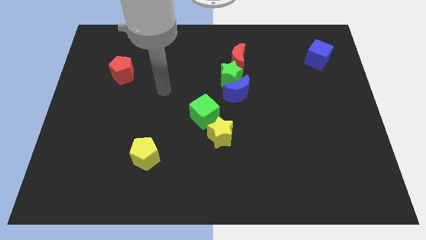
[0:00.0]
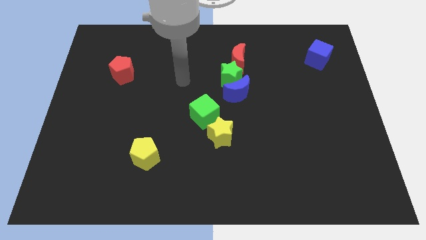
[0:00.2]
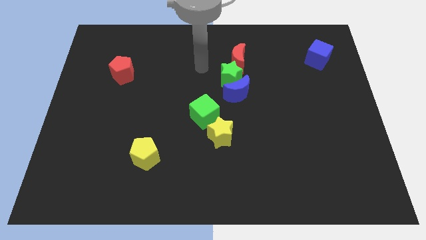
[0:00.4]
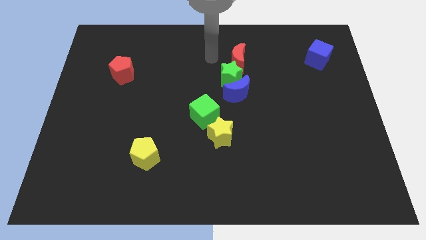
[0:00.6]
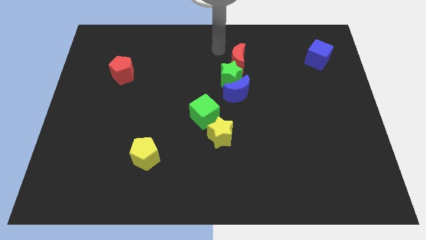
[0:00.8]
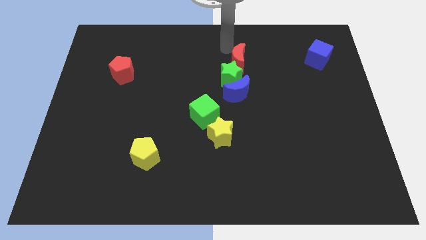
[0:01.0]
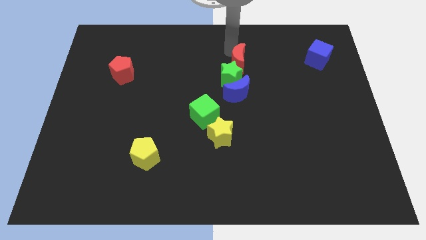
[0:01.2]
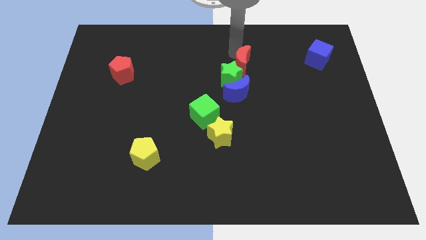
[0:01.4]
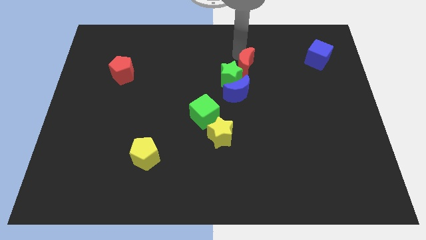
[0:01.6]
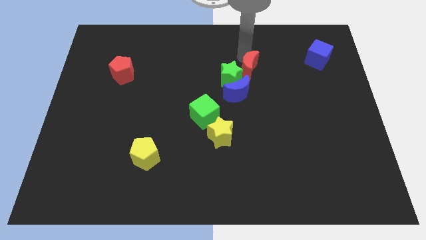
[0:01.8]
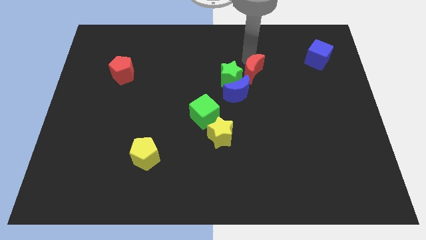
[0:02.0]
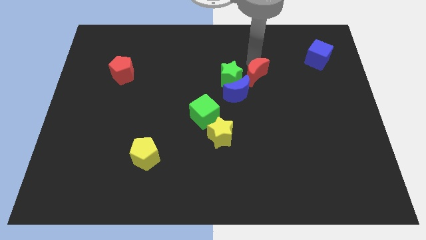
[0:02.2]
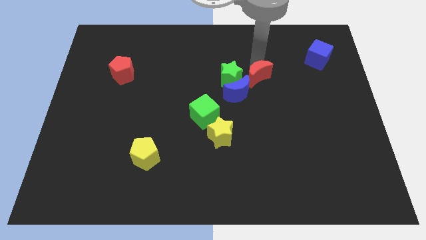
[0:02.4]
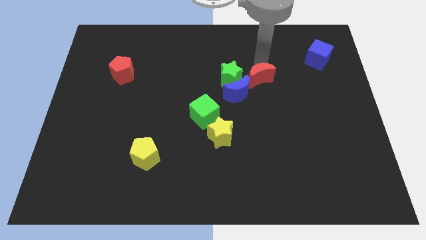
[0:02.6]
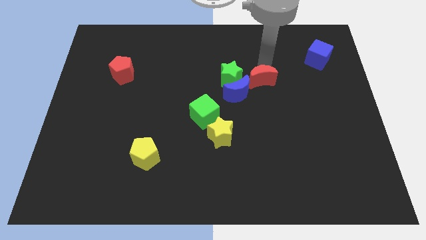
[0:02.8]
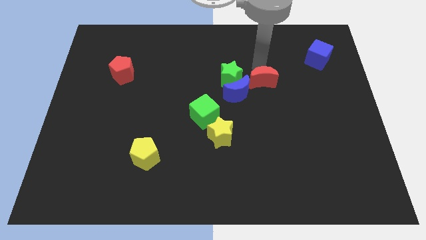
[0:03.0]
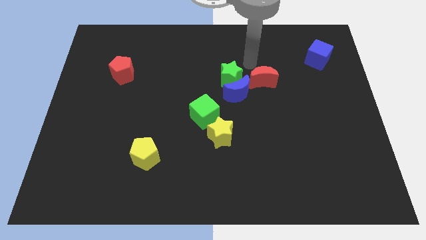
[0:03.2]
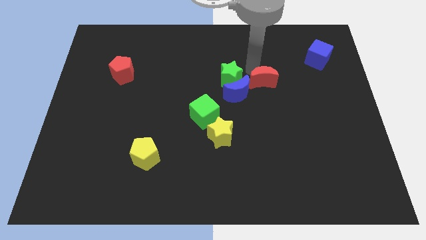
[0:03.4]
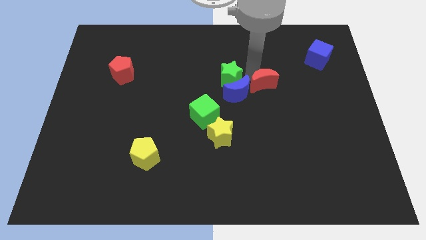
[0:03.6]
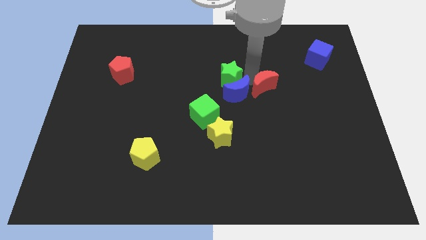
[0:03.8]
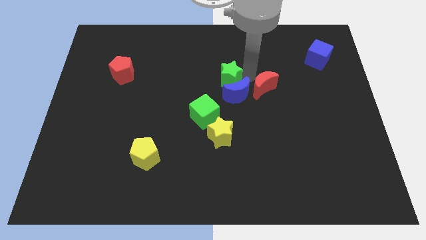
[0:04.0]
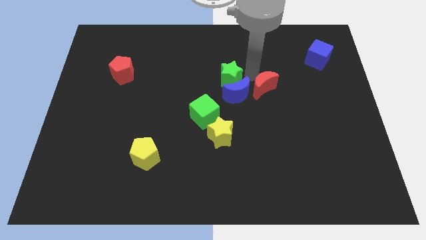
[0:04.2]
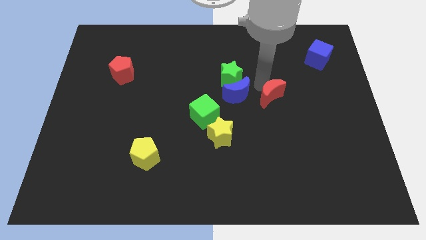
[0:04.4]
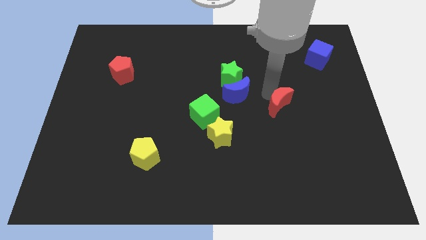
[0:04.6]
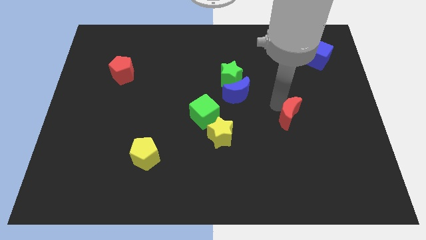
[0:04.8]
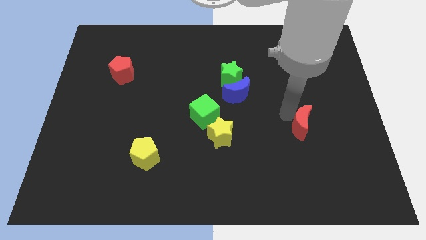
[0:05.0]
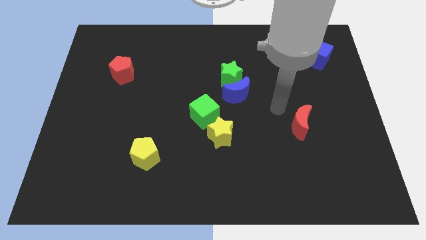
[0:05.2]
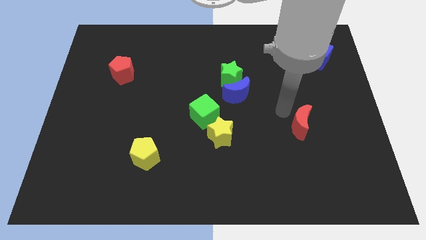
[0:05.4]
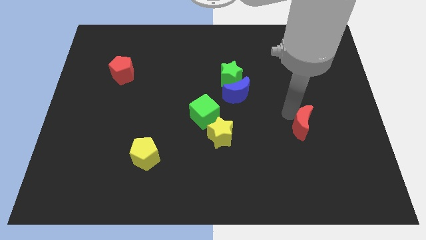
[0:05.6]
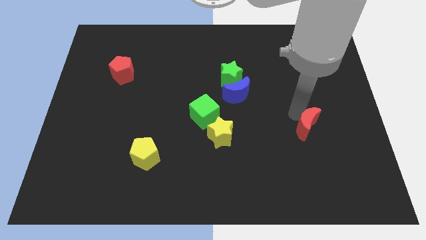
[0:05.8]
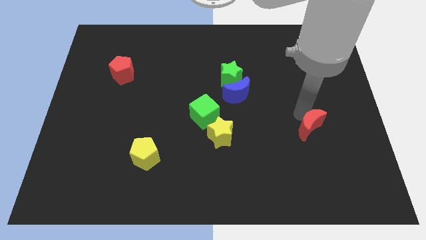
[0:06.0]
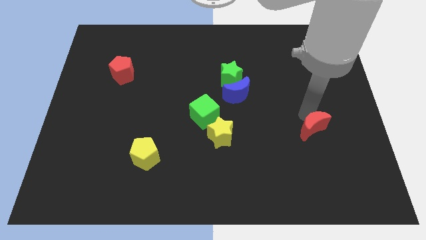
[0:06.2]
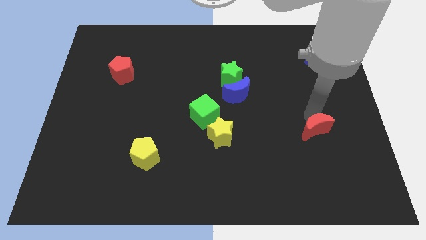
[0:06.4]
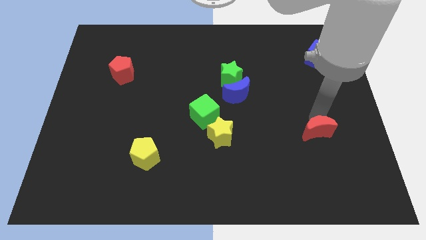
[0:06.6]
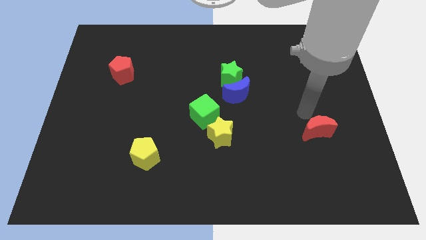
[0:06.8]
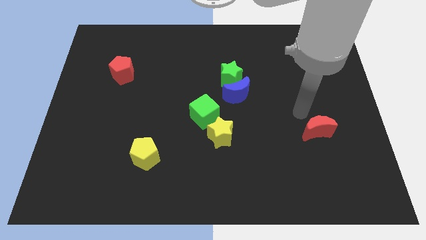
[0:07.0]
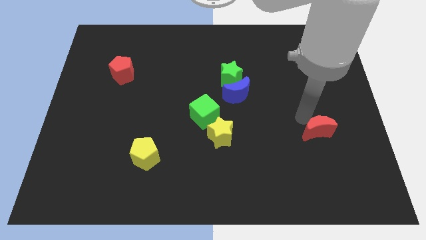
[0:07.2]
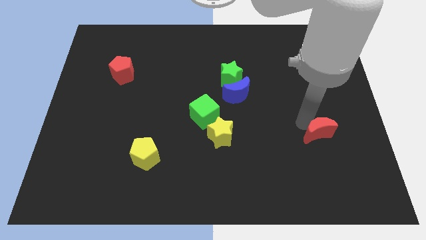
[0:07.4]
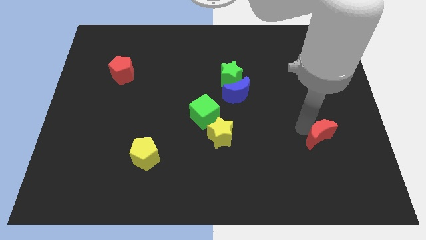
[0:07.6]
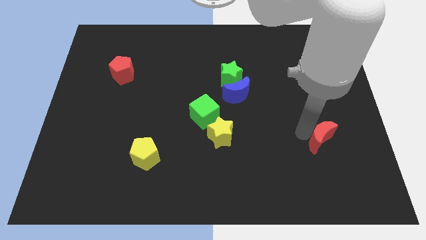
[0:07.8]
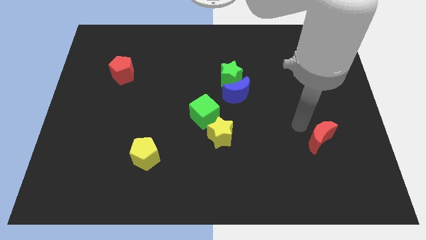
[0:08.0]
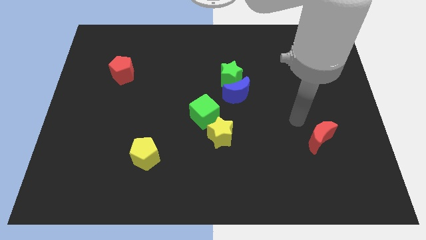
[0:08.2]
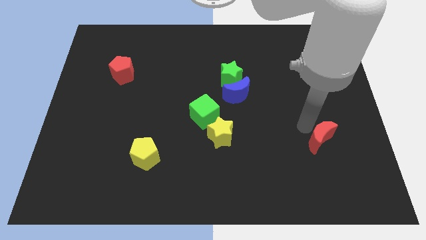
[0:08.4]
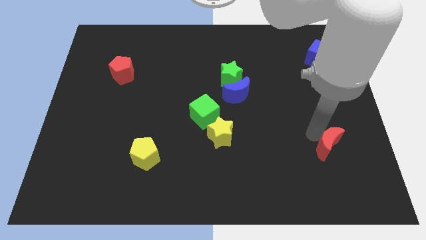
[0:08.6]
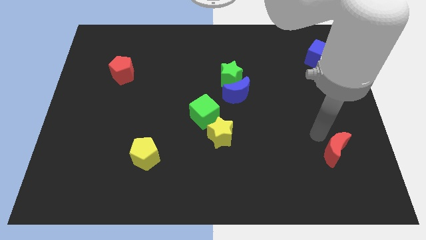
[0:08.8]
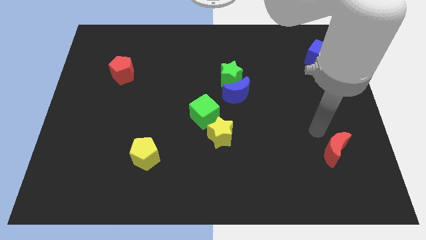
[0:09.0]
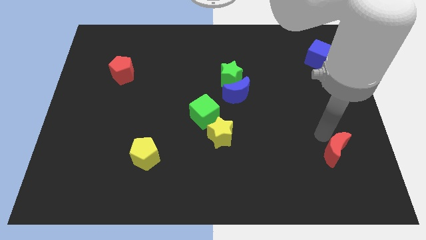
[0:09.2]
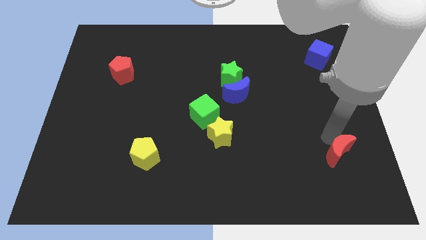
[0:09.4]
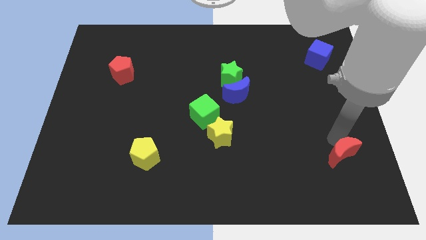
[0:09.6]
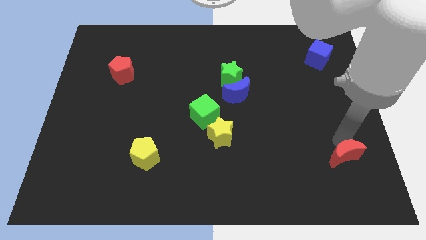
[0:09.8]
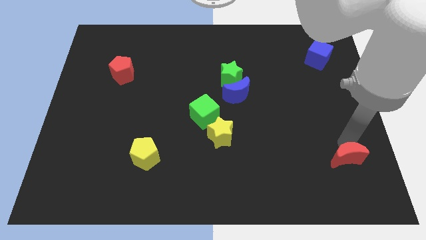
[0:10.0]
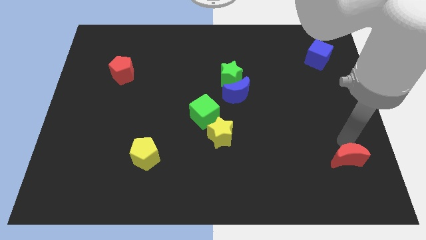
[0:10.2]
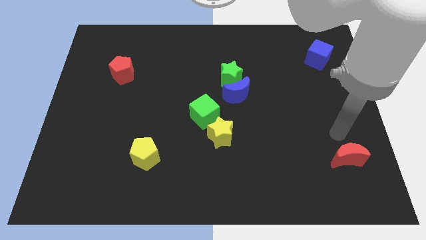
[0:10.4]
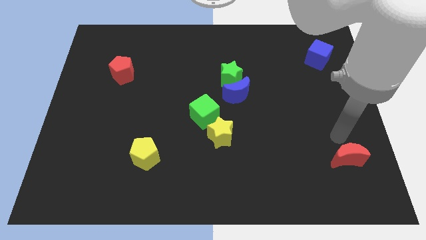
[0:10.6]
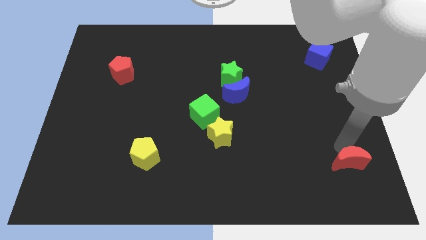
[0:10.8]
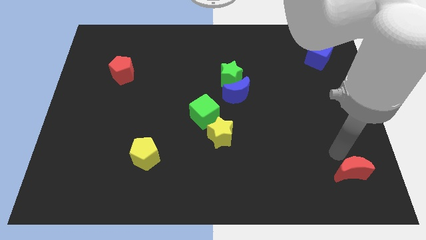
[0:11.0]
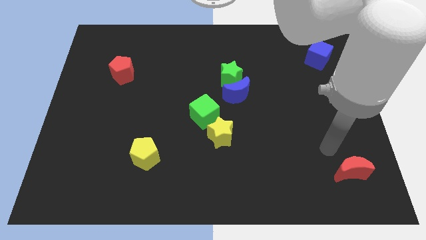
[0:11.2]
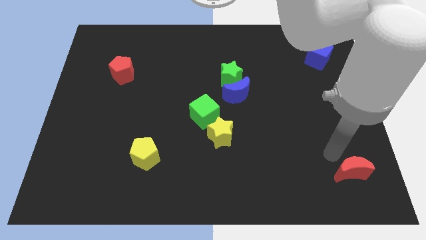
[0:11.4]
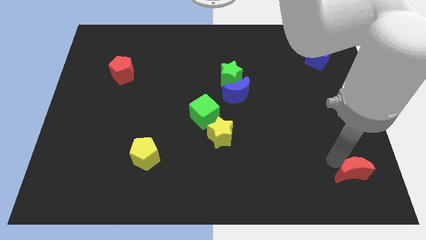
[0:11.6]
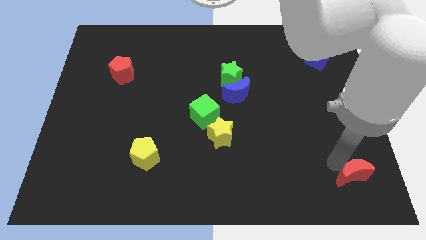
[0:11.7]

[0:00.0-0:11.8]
slide the red moon to the bottom right of the board
